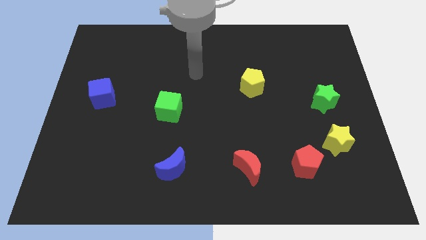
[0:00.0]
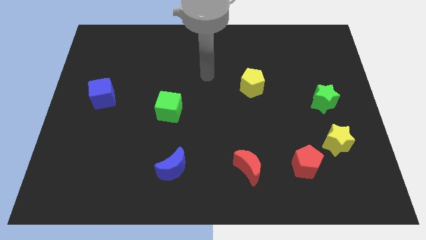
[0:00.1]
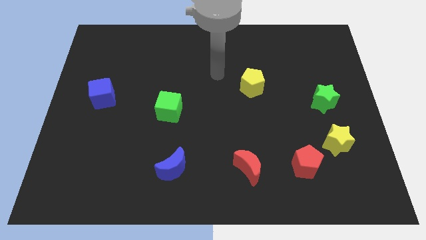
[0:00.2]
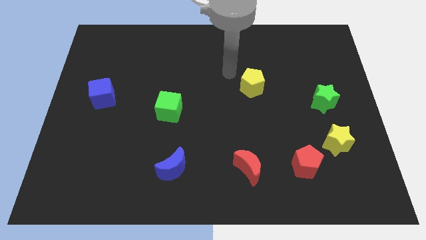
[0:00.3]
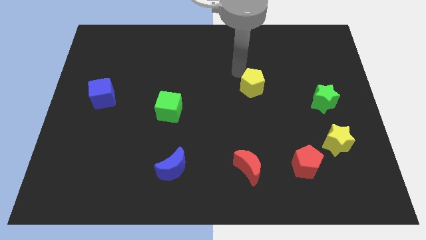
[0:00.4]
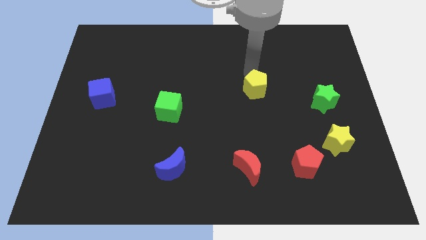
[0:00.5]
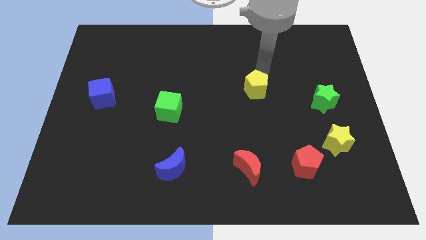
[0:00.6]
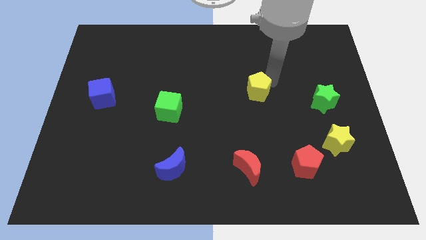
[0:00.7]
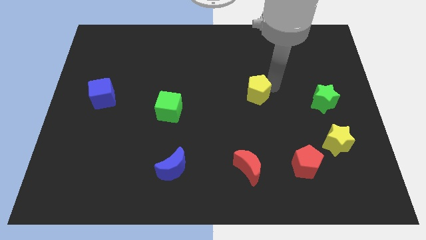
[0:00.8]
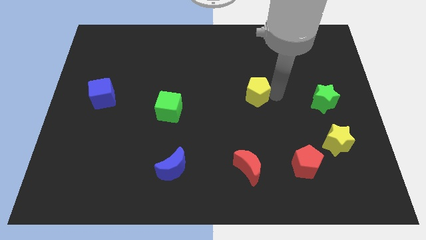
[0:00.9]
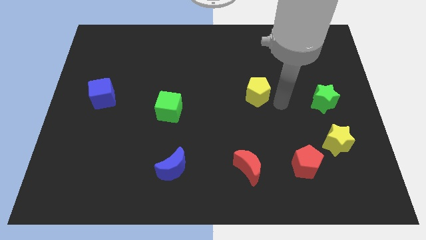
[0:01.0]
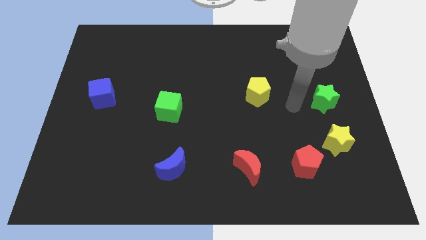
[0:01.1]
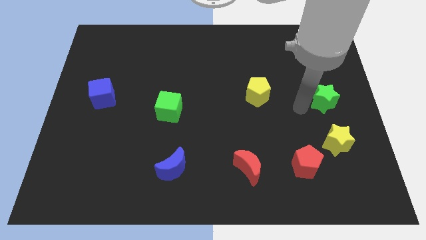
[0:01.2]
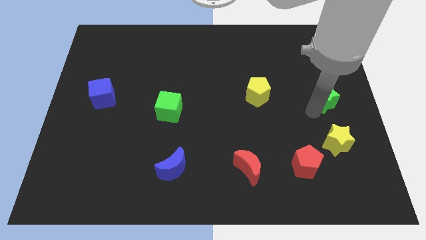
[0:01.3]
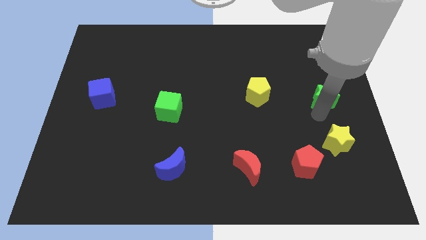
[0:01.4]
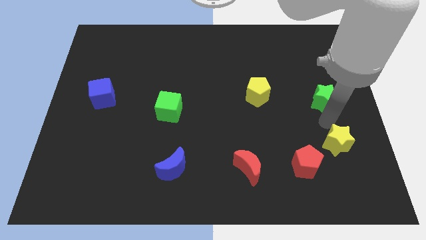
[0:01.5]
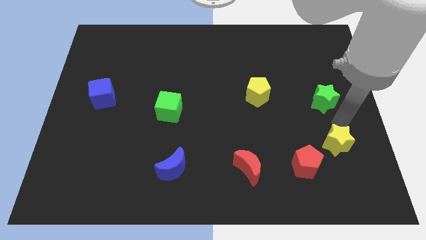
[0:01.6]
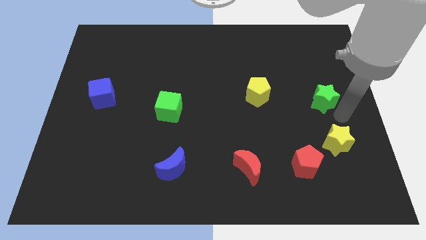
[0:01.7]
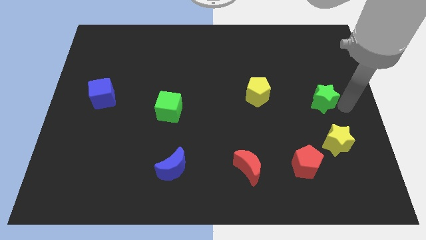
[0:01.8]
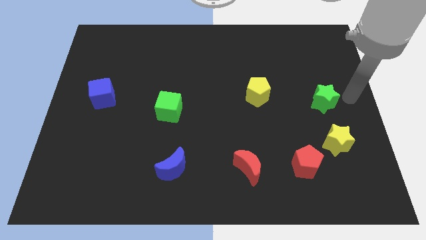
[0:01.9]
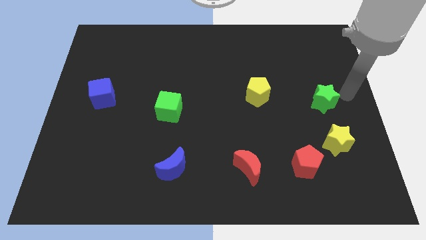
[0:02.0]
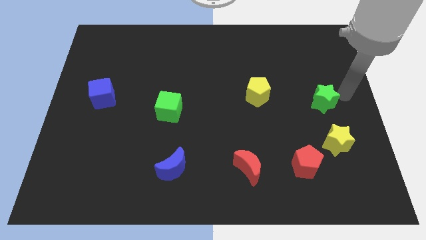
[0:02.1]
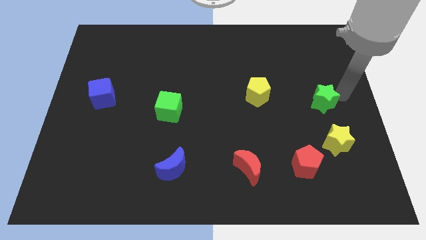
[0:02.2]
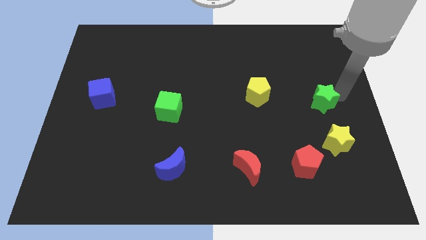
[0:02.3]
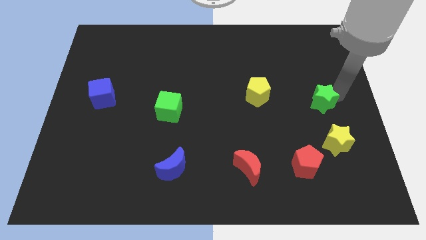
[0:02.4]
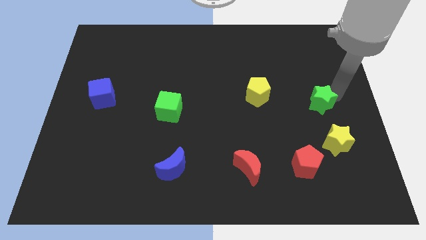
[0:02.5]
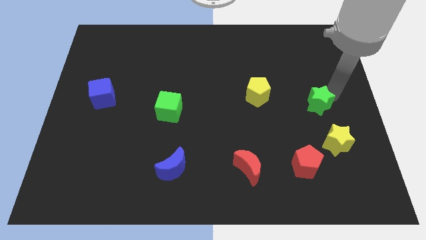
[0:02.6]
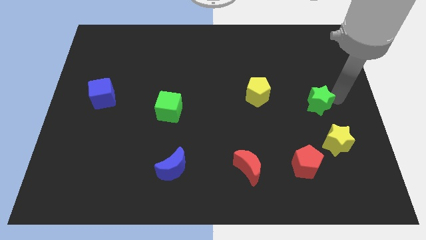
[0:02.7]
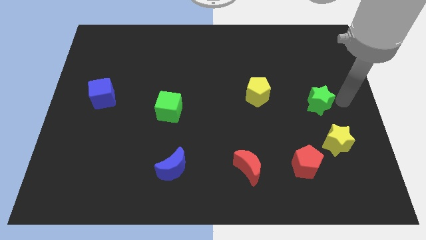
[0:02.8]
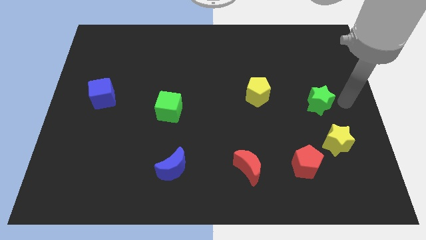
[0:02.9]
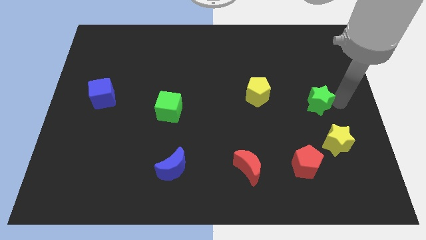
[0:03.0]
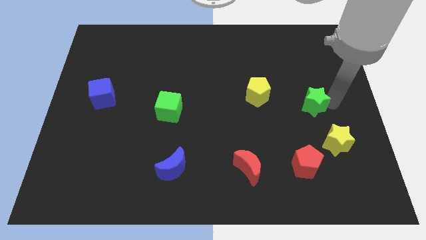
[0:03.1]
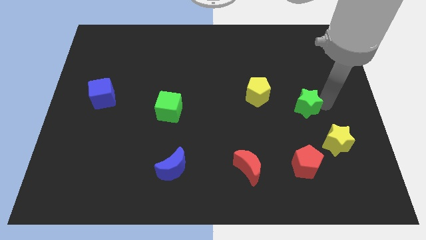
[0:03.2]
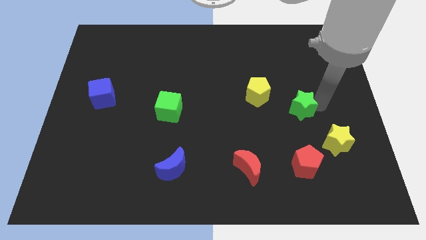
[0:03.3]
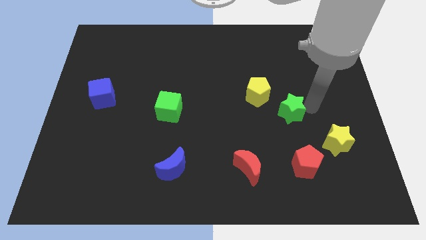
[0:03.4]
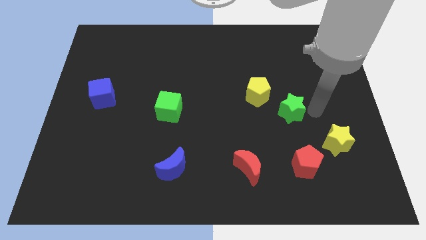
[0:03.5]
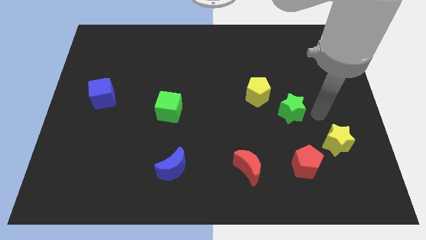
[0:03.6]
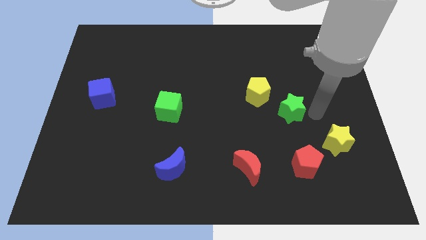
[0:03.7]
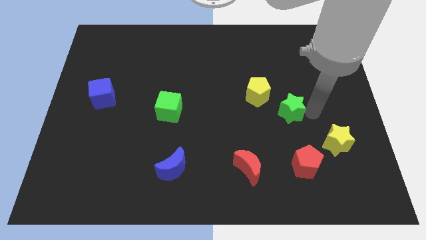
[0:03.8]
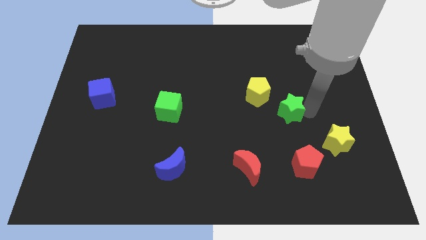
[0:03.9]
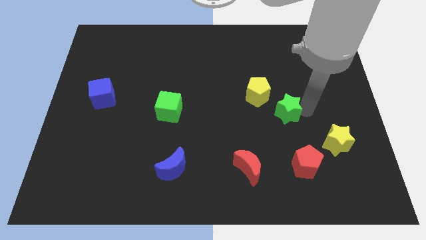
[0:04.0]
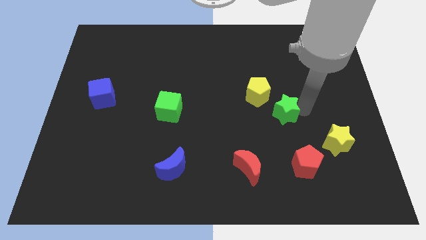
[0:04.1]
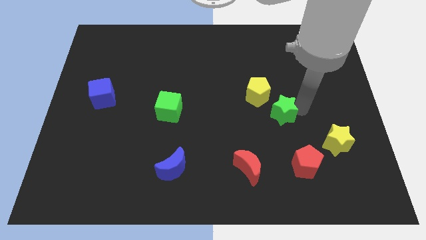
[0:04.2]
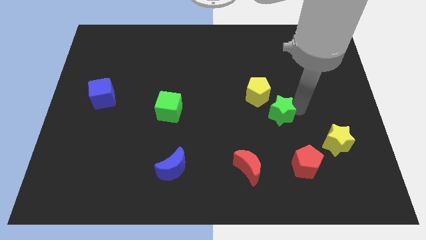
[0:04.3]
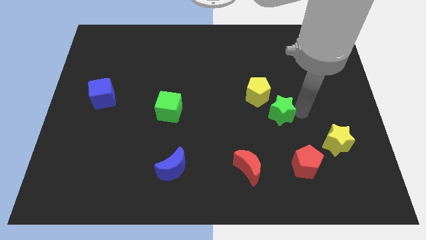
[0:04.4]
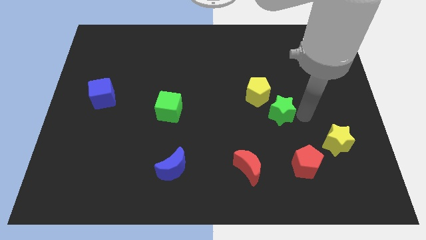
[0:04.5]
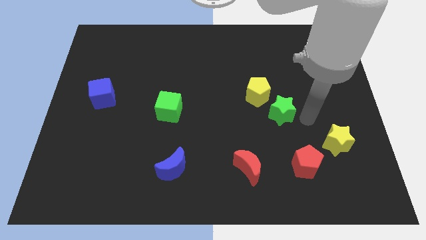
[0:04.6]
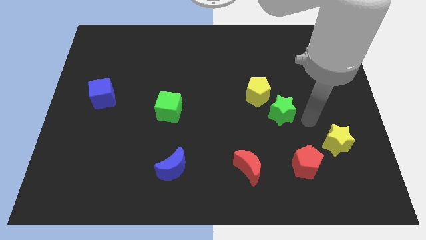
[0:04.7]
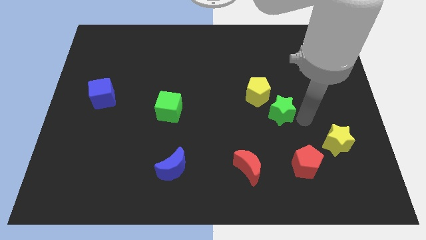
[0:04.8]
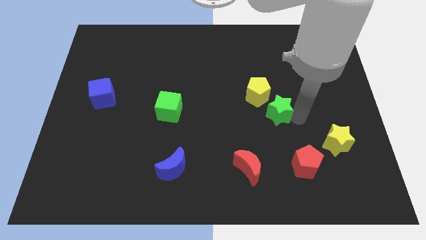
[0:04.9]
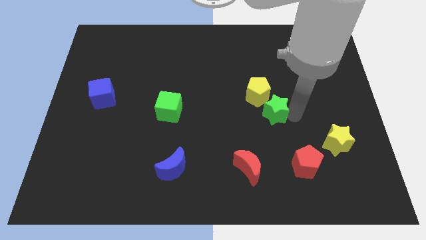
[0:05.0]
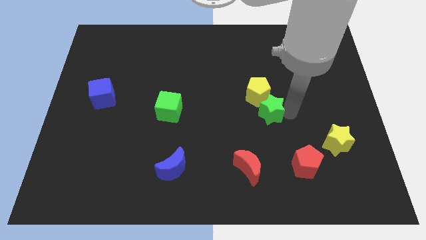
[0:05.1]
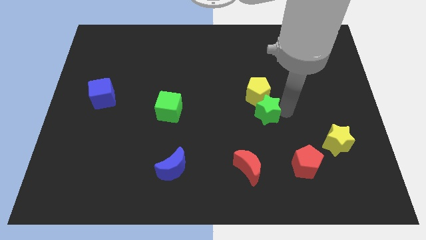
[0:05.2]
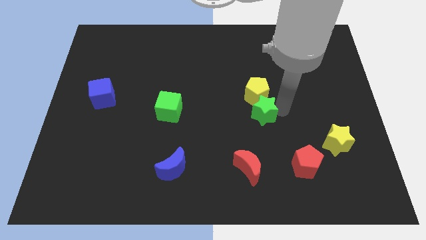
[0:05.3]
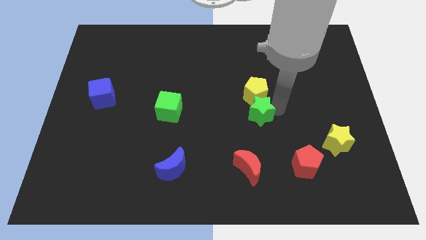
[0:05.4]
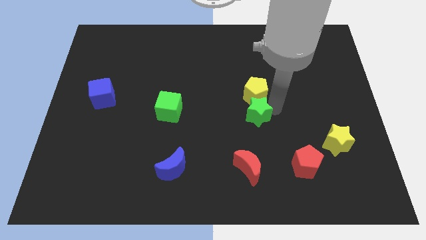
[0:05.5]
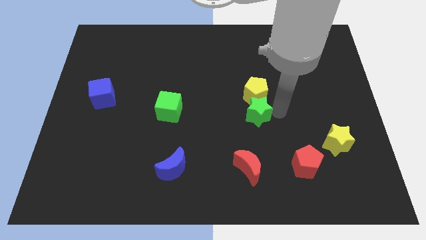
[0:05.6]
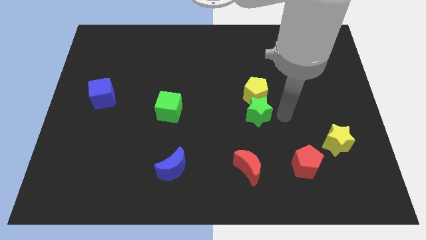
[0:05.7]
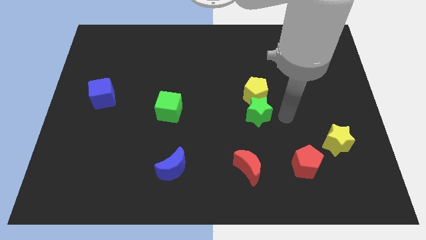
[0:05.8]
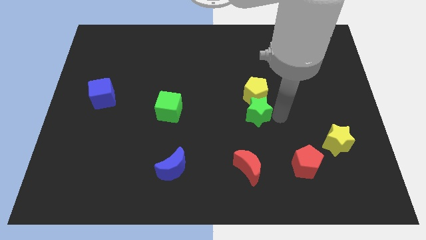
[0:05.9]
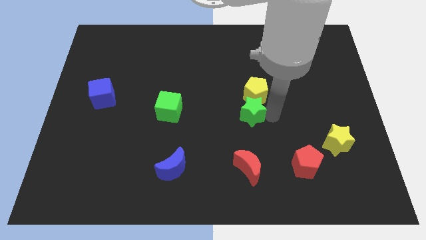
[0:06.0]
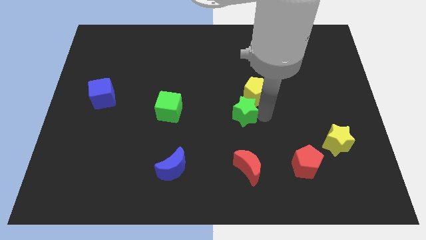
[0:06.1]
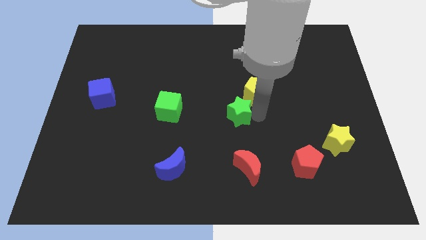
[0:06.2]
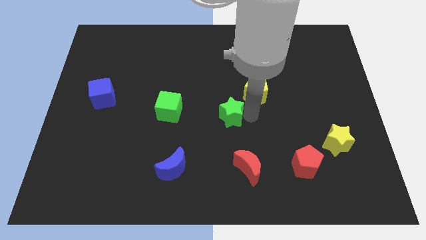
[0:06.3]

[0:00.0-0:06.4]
push the green star to the right side of the green cube
